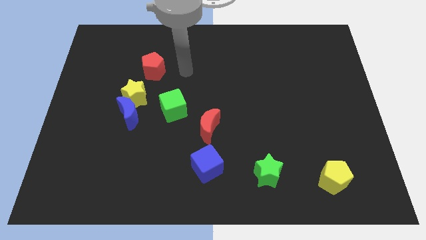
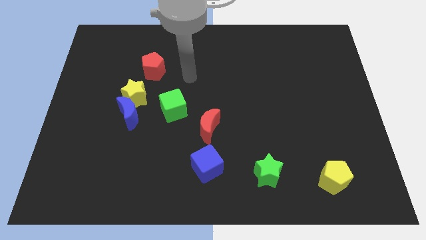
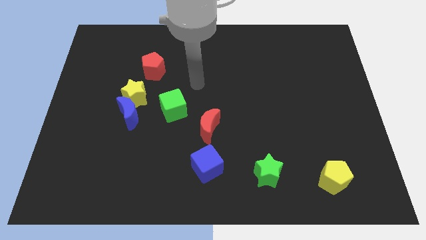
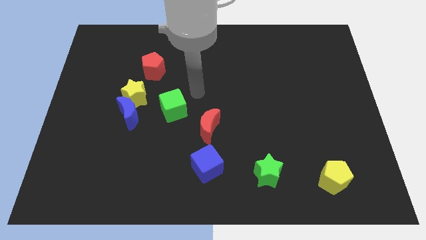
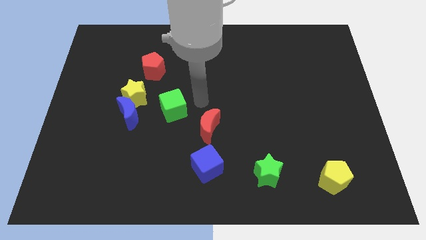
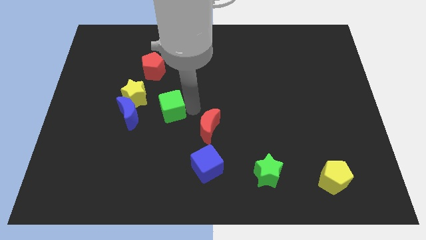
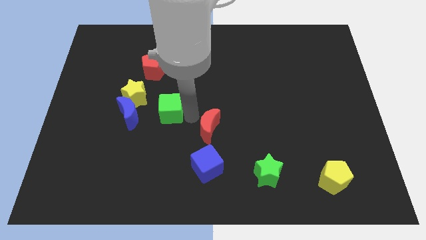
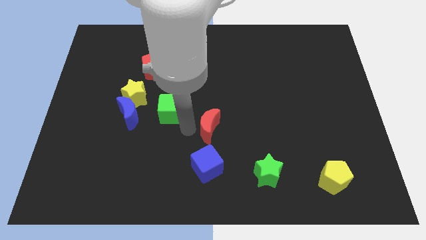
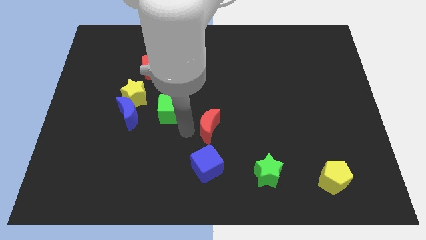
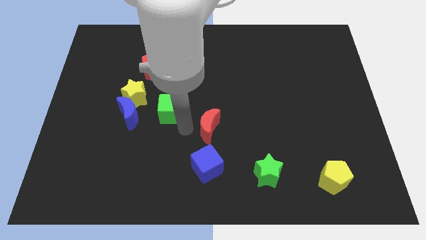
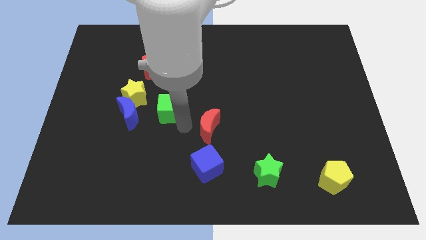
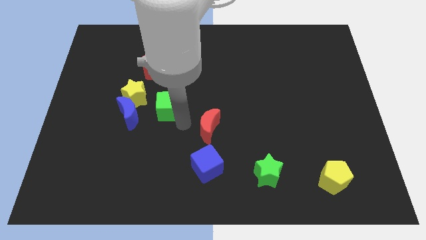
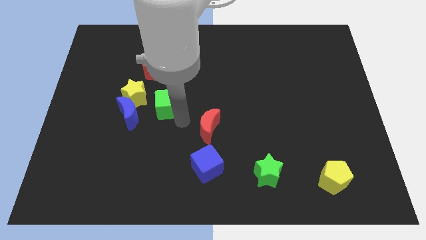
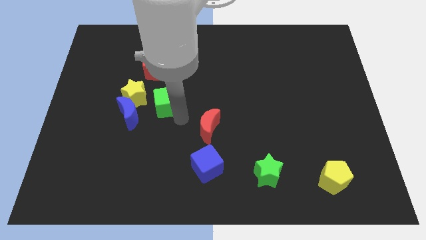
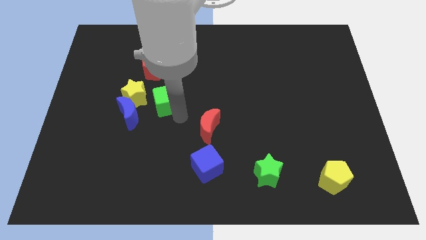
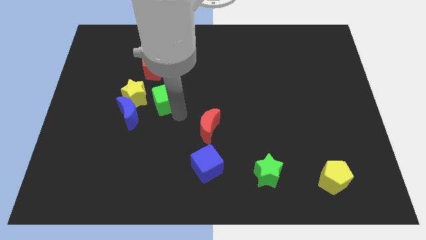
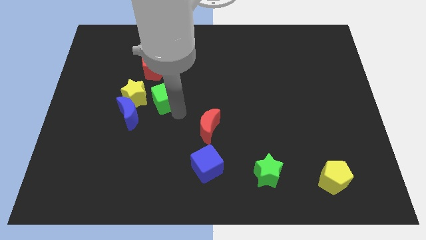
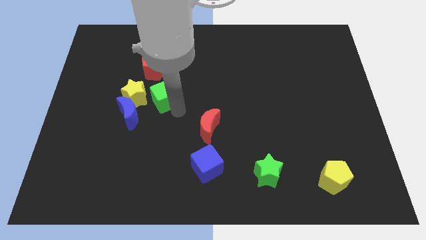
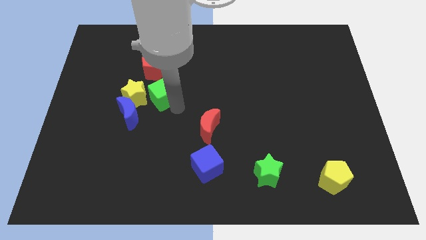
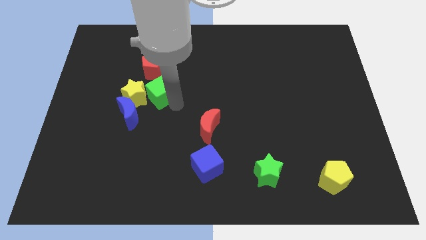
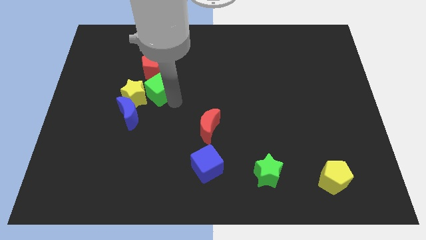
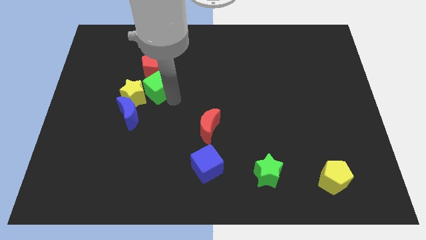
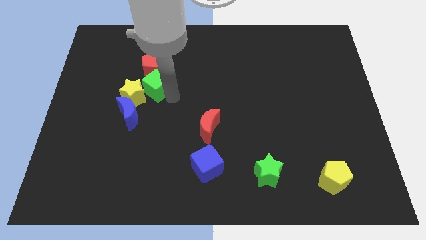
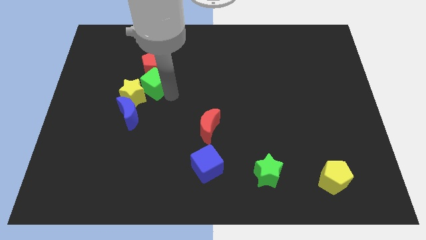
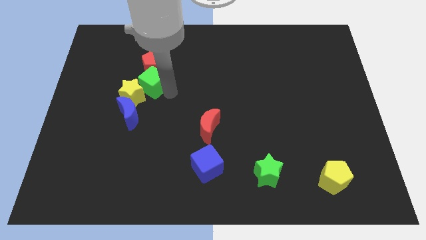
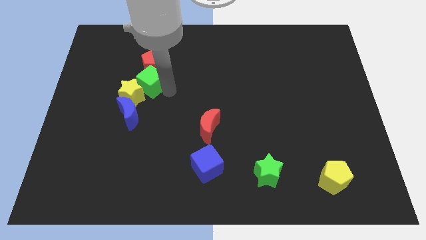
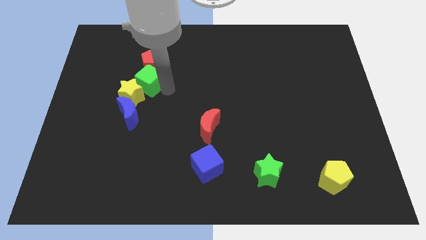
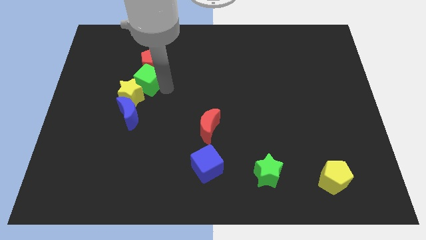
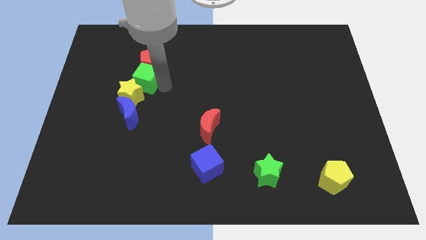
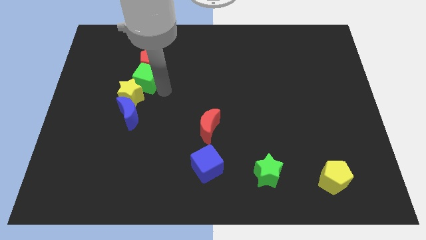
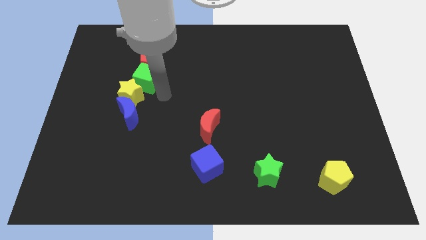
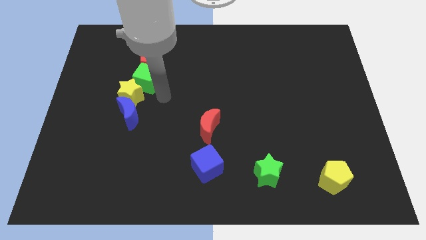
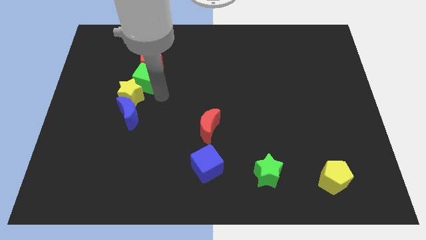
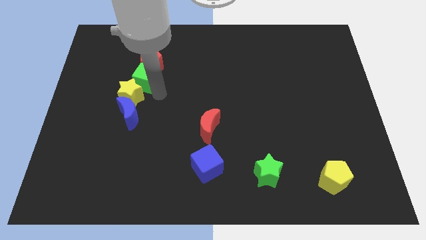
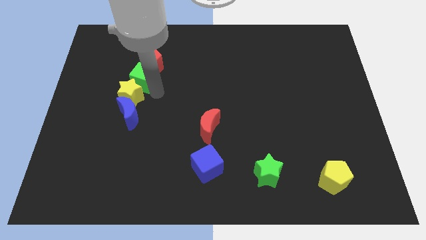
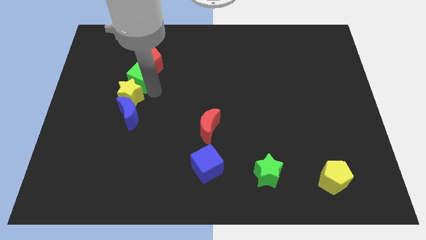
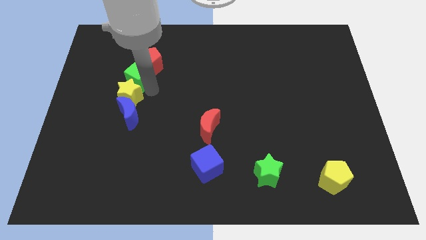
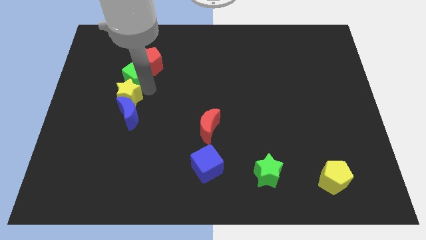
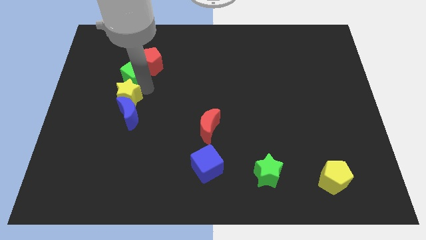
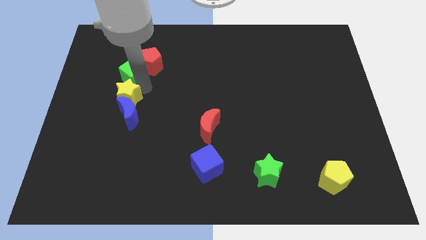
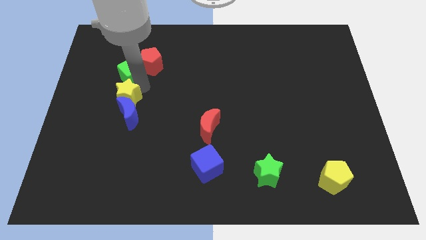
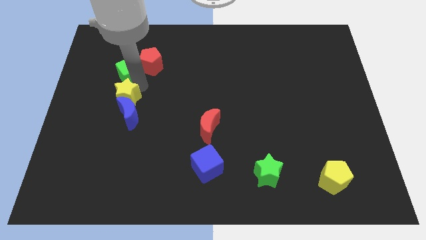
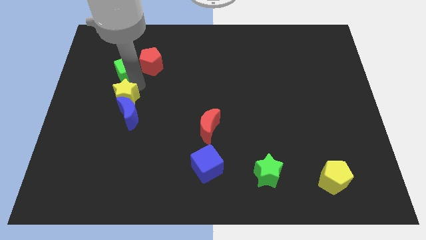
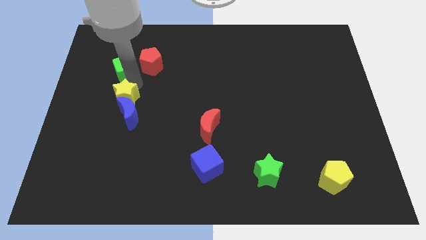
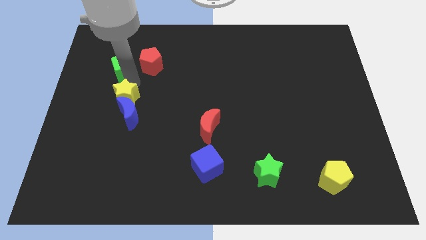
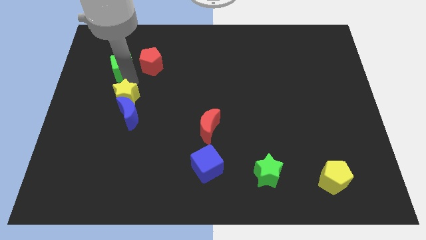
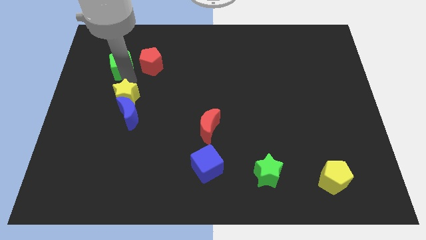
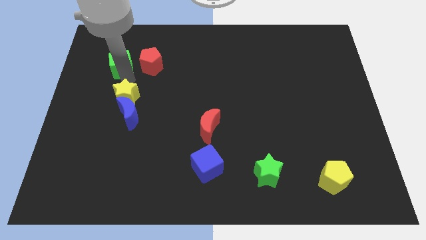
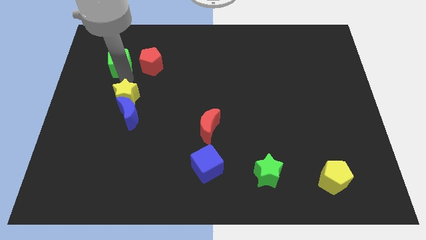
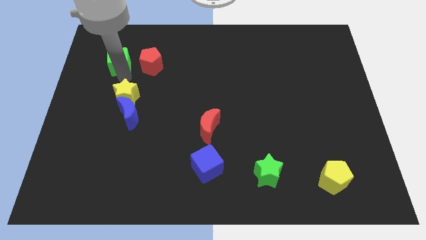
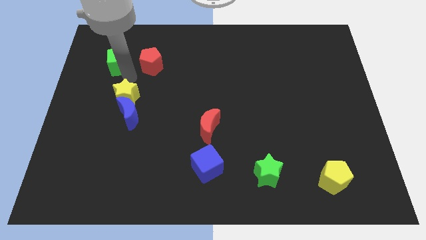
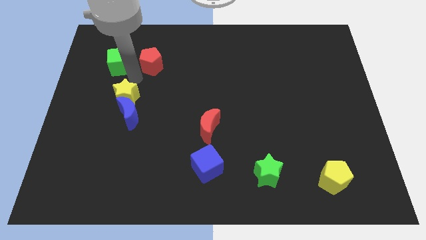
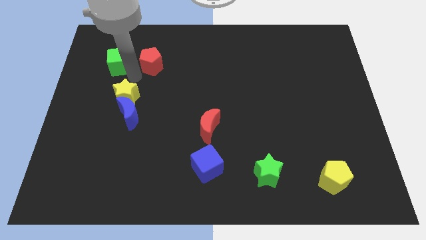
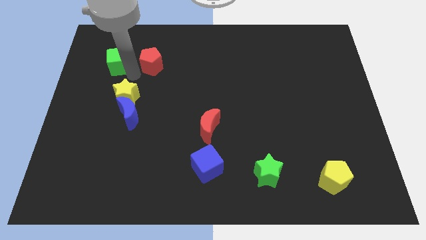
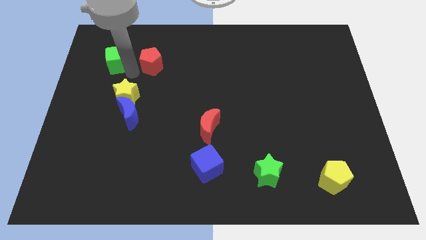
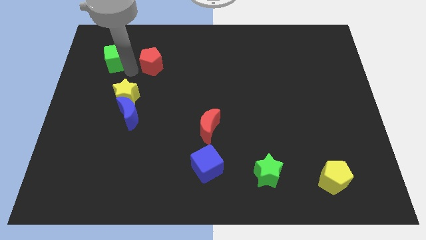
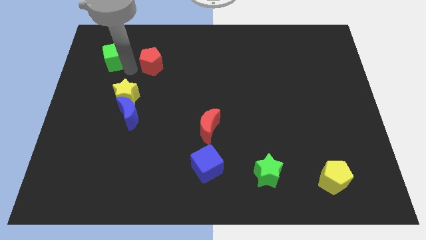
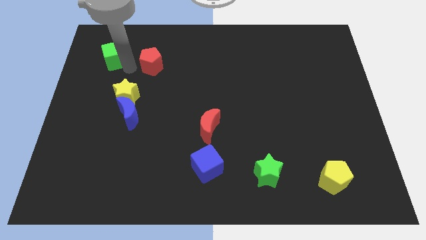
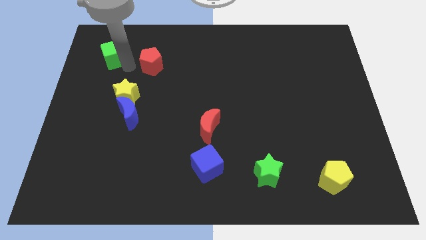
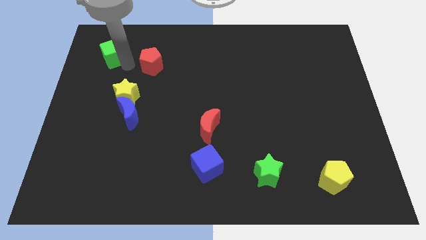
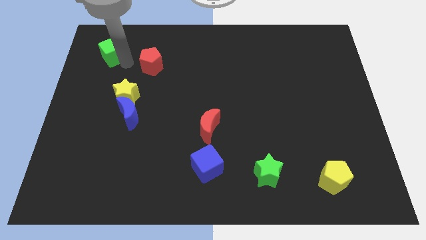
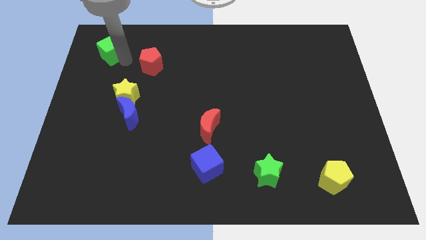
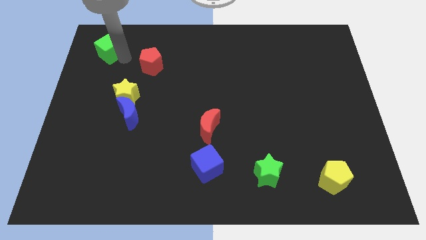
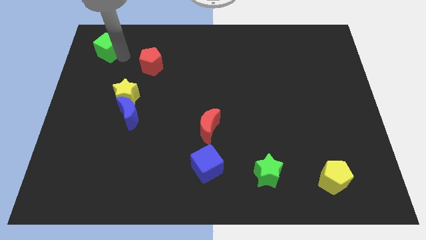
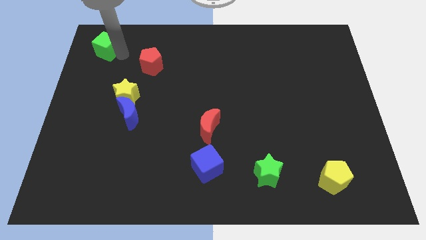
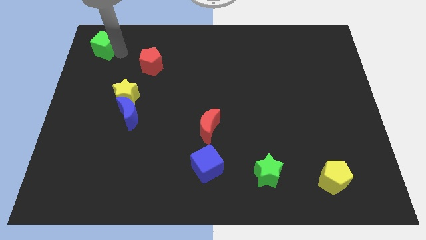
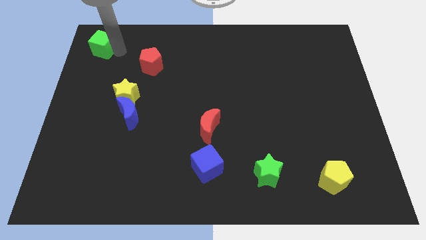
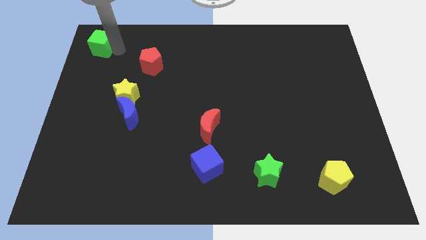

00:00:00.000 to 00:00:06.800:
put the green cube to the top left corner
